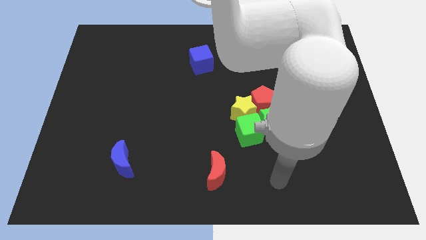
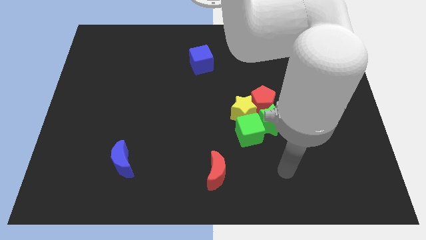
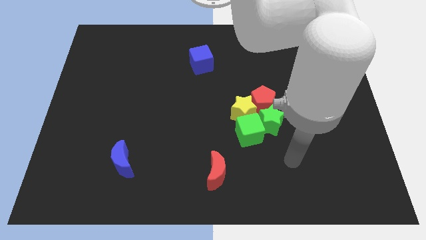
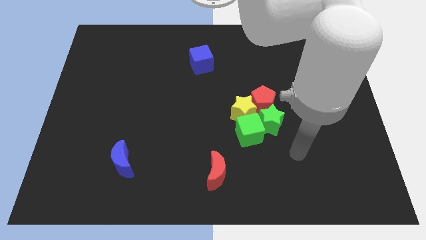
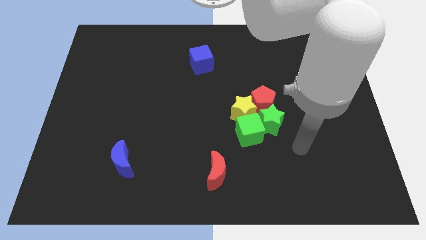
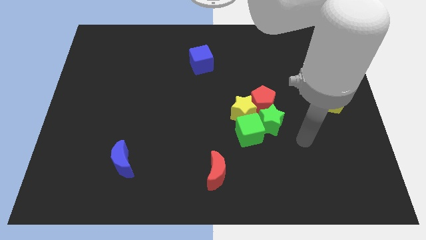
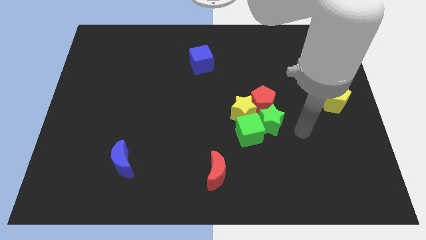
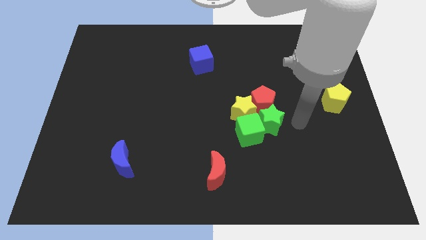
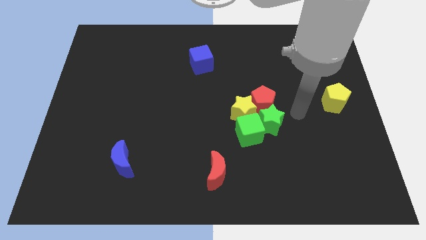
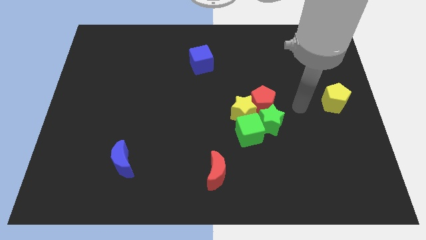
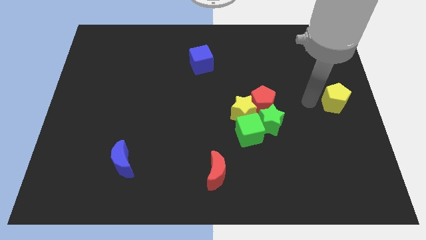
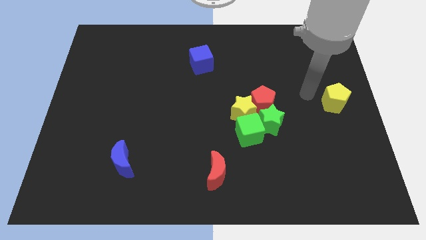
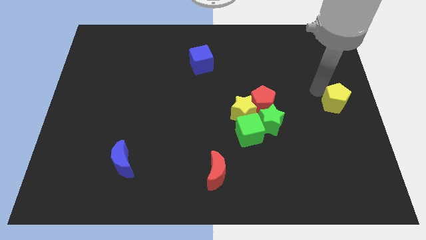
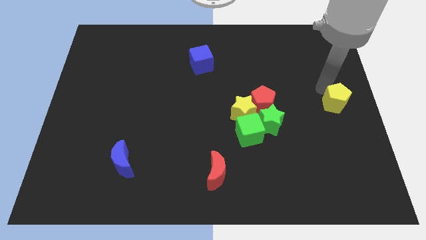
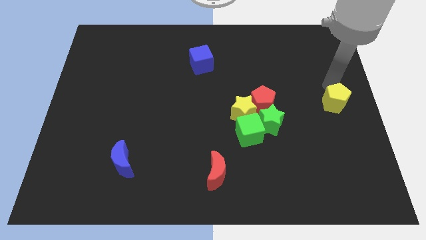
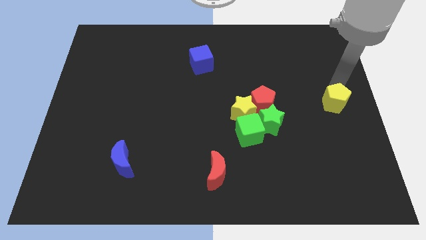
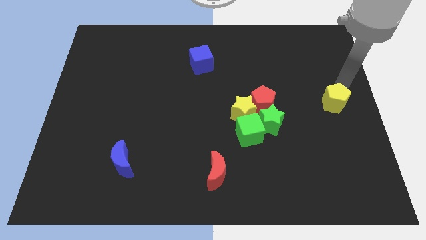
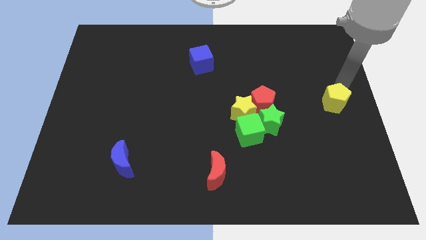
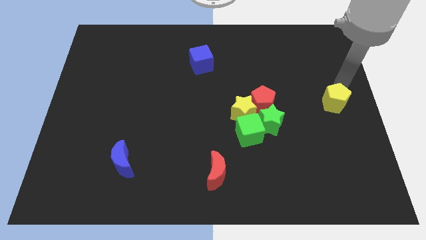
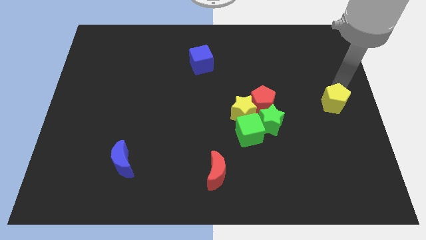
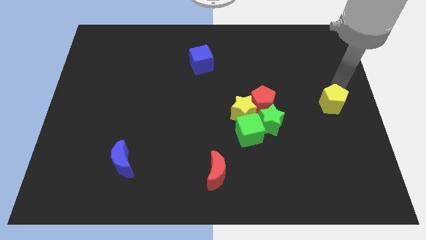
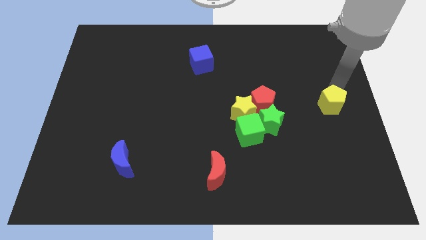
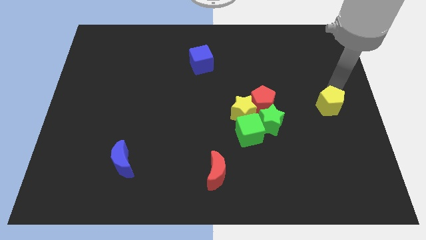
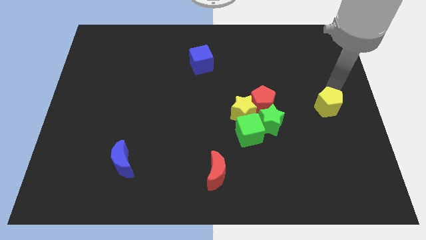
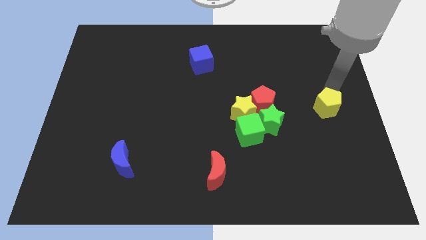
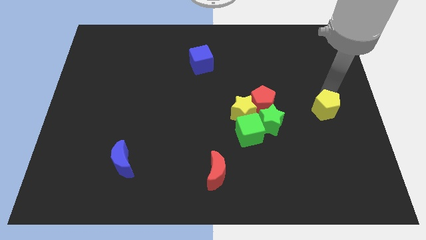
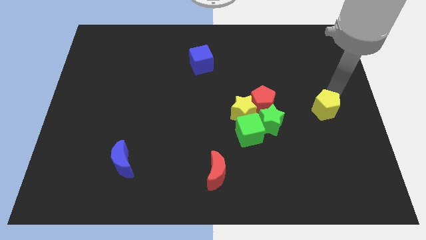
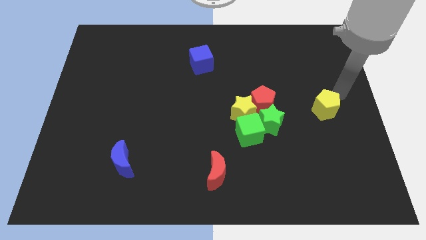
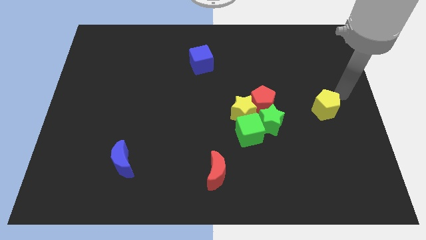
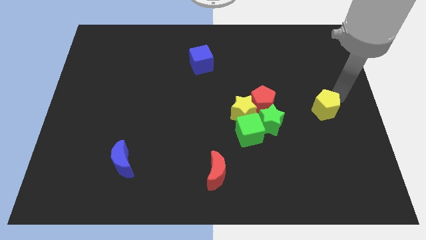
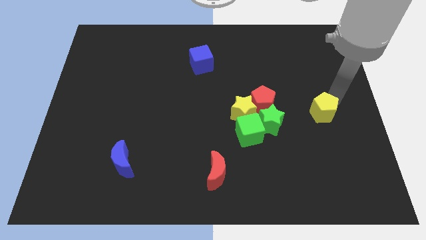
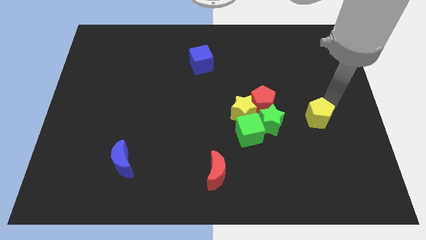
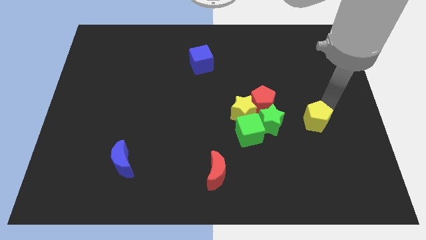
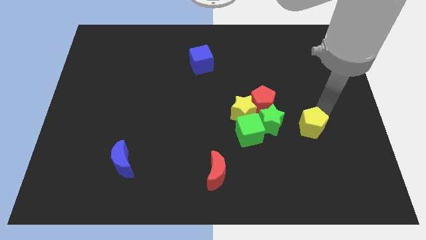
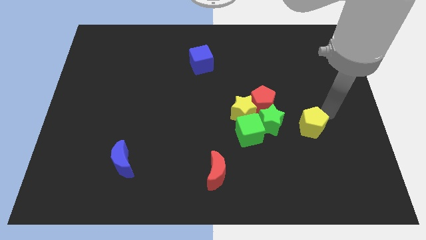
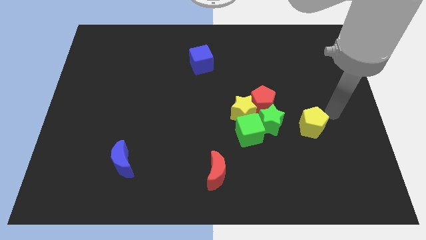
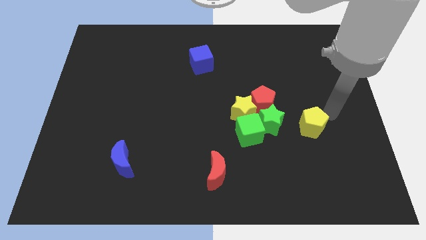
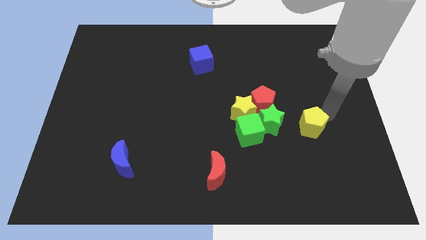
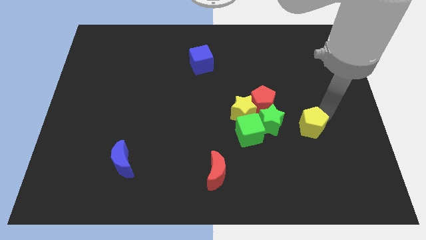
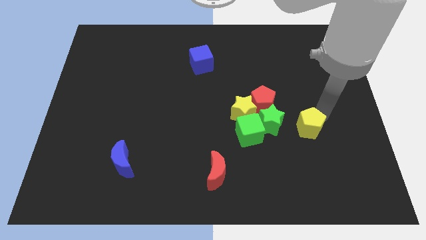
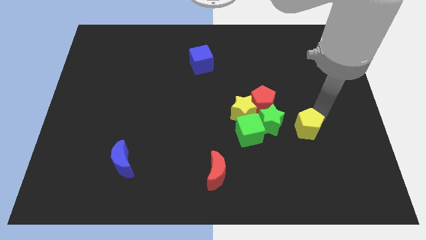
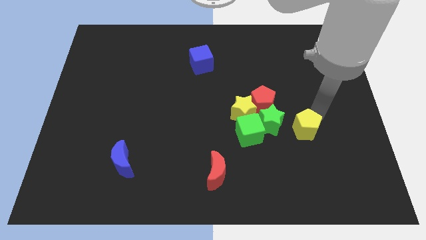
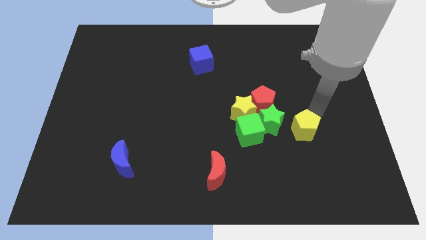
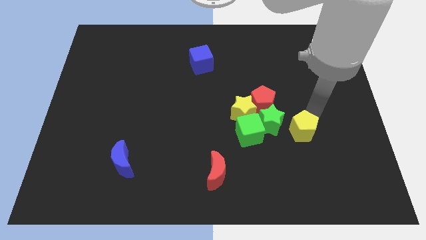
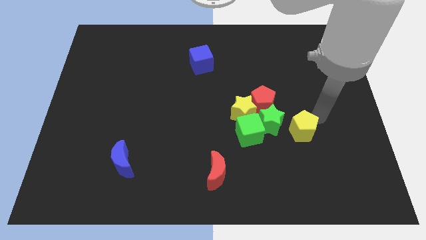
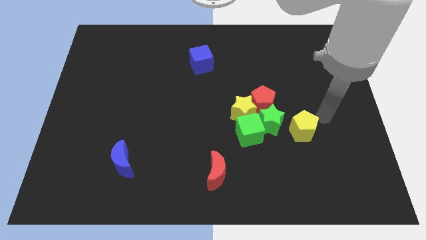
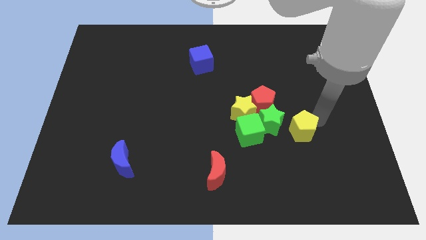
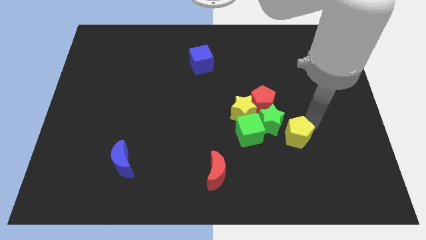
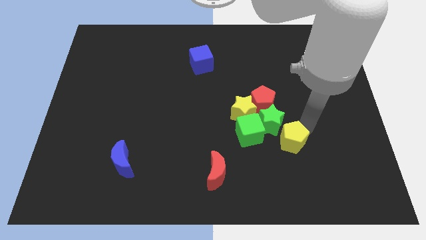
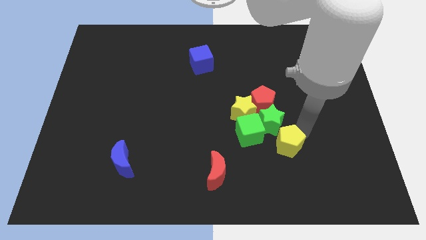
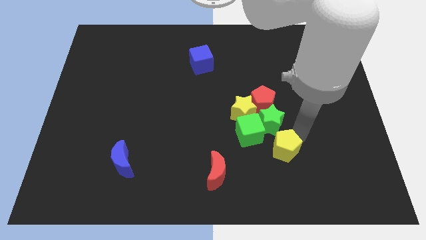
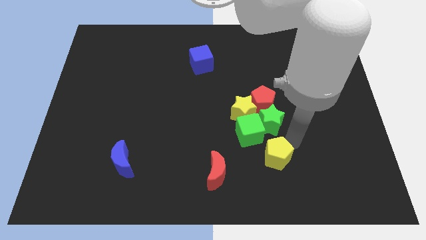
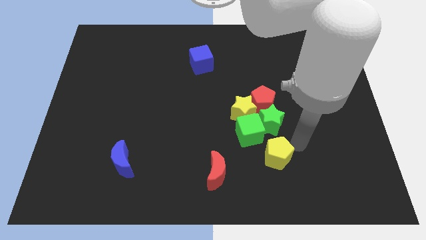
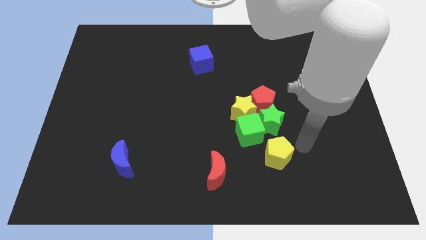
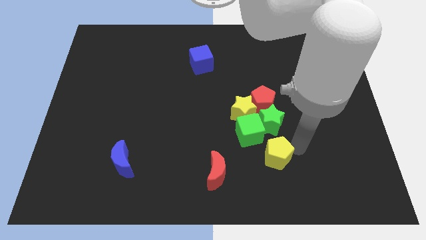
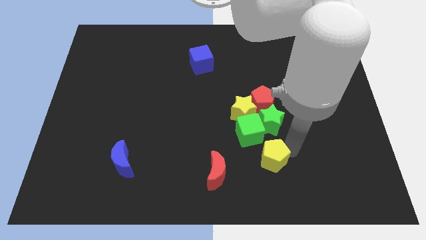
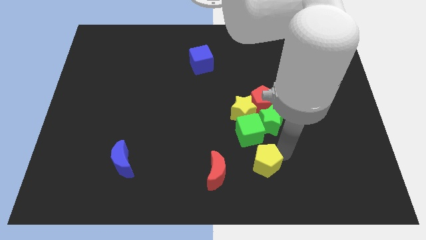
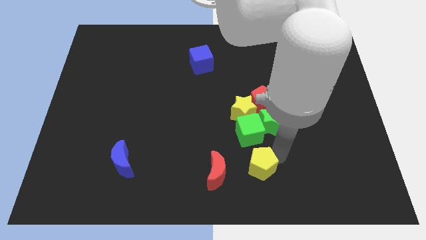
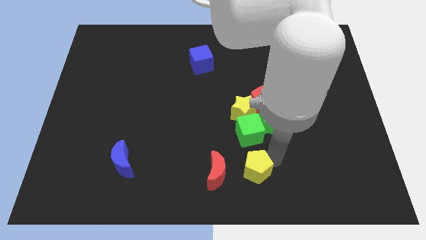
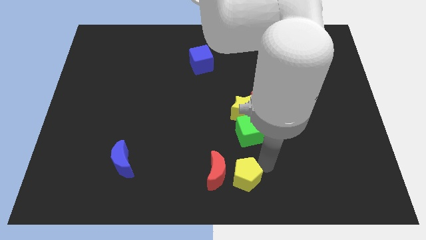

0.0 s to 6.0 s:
put the yellow pentagon towards the red moon
